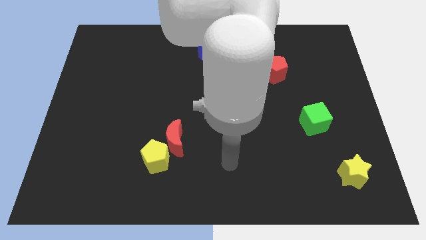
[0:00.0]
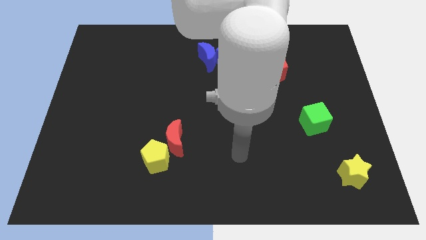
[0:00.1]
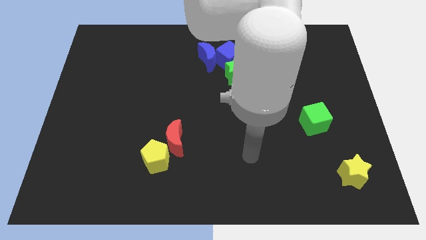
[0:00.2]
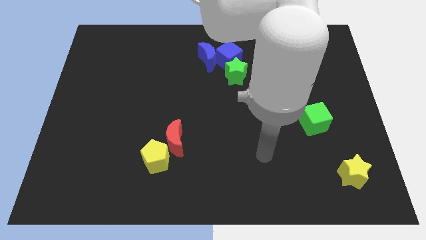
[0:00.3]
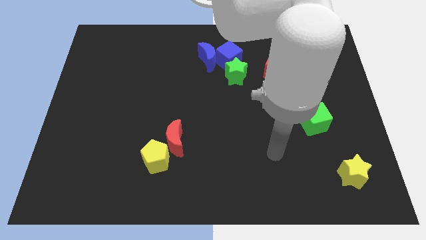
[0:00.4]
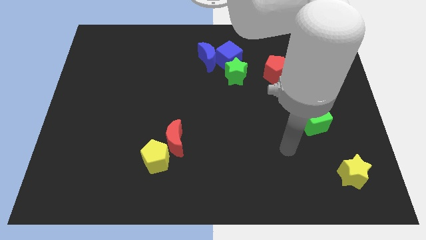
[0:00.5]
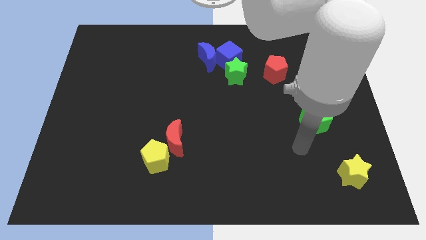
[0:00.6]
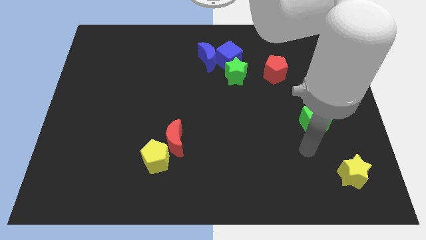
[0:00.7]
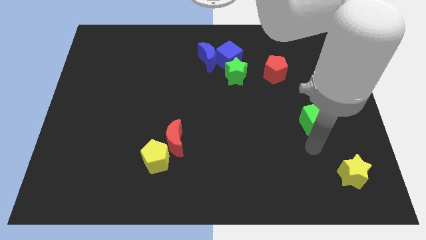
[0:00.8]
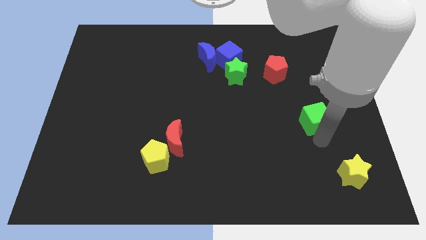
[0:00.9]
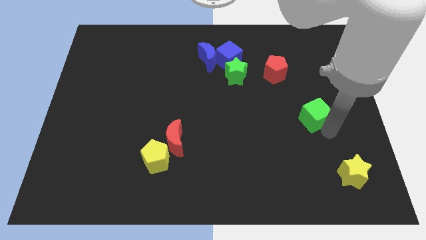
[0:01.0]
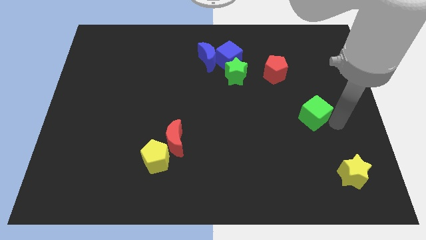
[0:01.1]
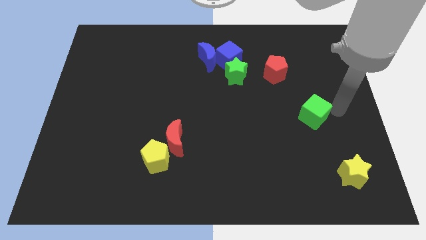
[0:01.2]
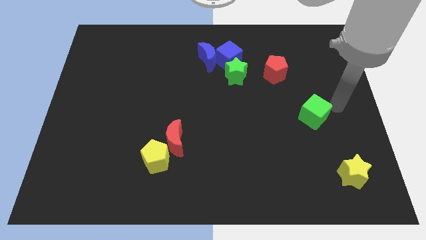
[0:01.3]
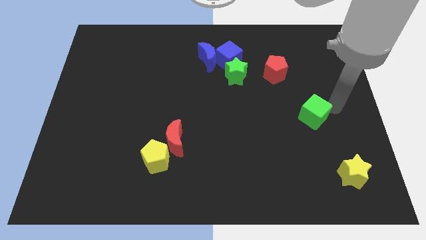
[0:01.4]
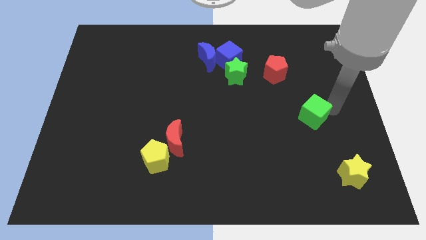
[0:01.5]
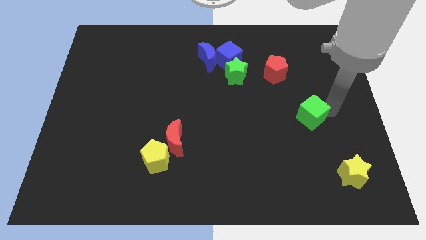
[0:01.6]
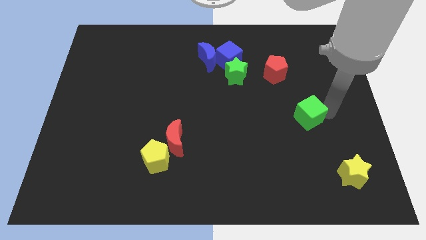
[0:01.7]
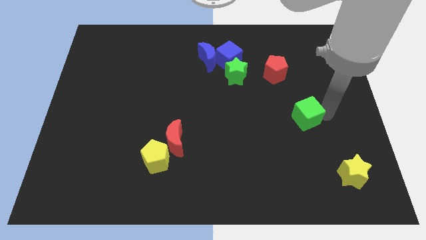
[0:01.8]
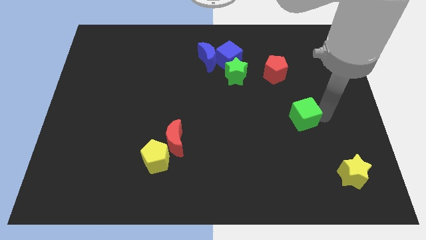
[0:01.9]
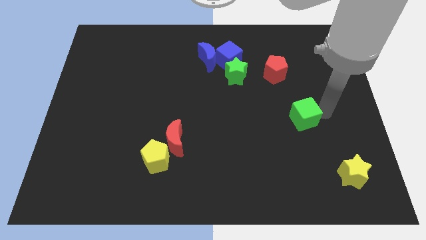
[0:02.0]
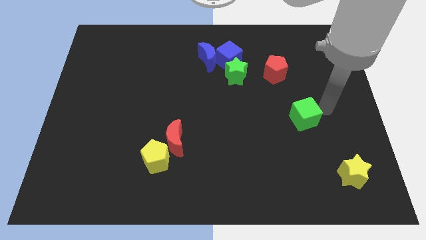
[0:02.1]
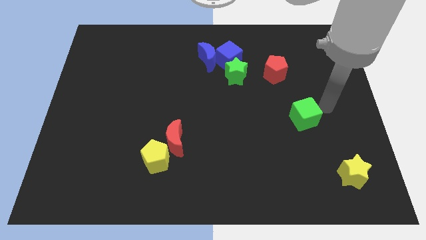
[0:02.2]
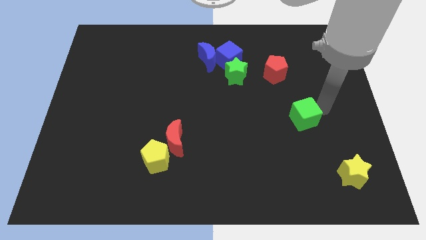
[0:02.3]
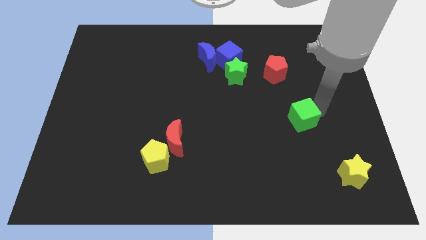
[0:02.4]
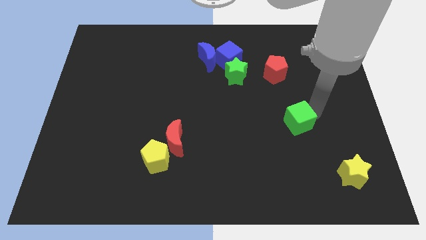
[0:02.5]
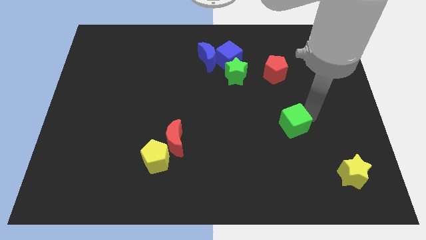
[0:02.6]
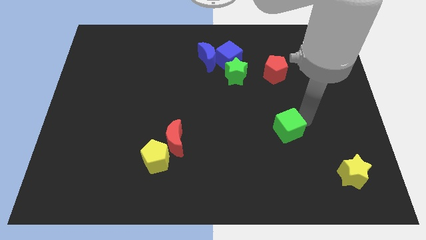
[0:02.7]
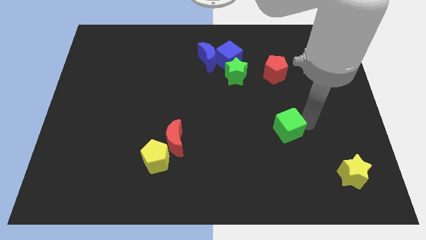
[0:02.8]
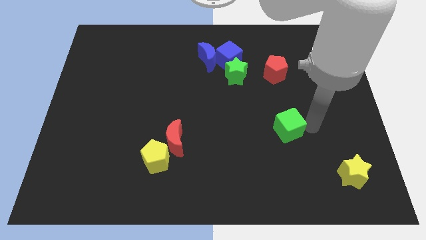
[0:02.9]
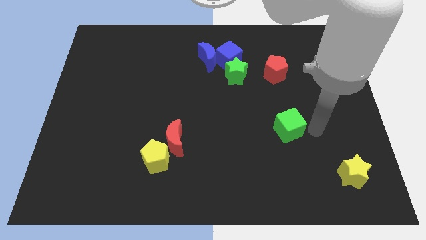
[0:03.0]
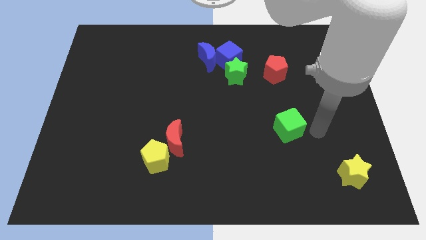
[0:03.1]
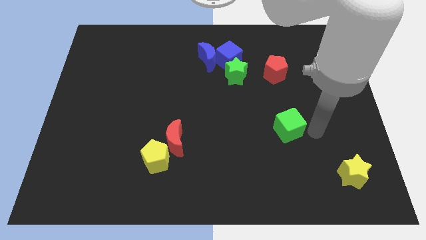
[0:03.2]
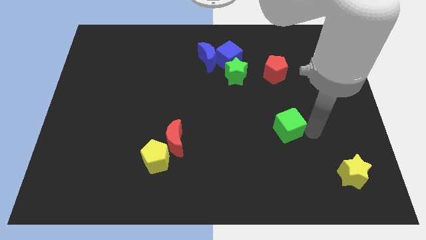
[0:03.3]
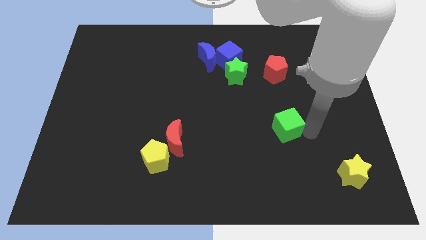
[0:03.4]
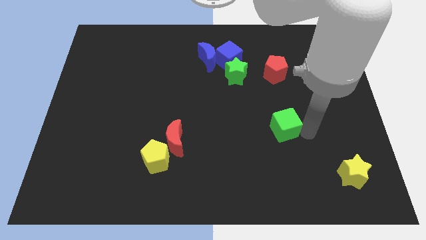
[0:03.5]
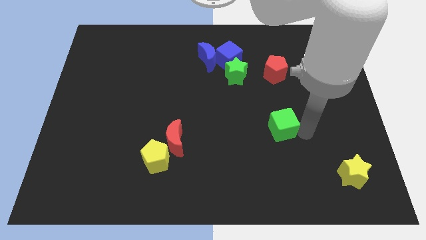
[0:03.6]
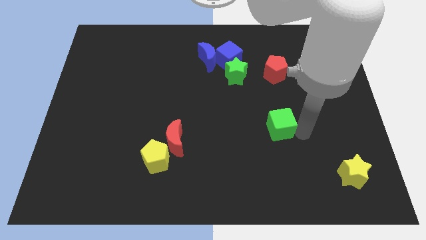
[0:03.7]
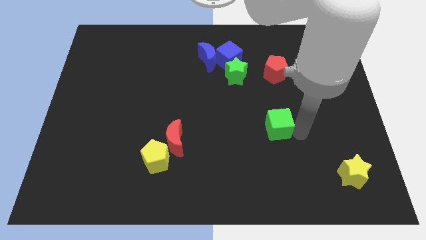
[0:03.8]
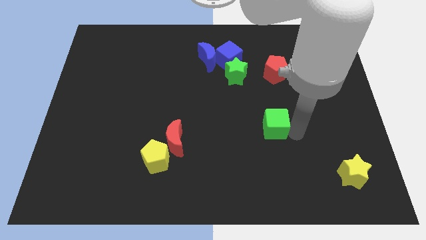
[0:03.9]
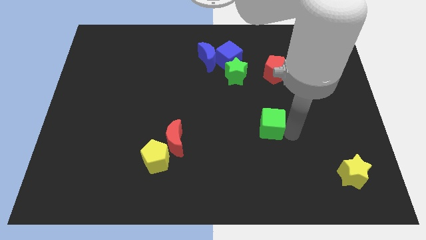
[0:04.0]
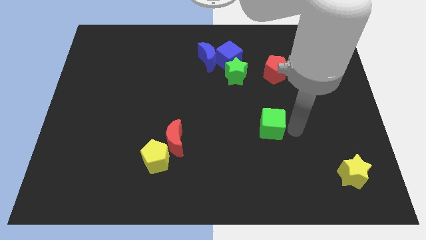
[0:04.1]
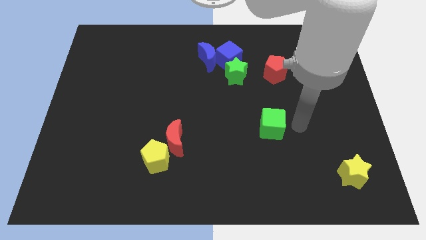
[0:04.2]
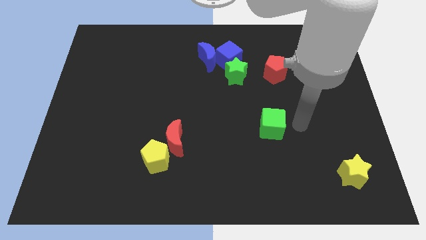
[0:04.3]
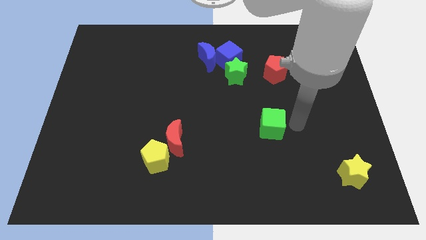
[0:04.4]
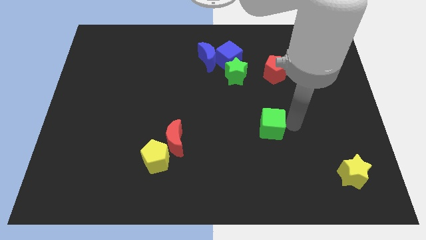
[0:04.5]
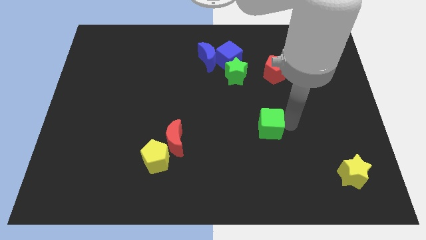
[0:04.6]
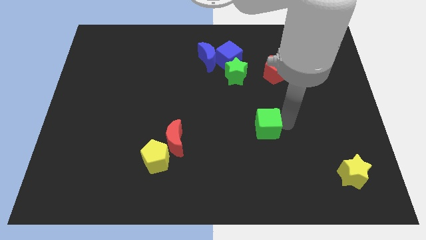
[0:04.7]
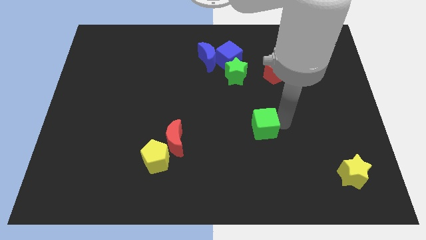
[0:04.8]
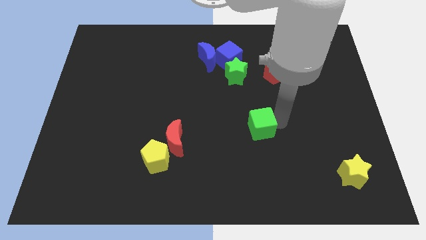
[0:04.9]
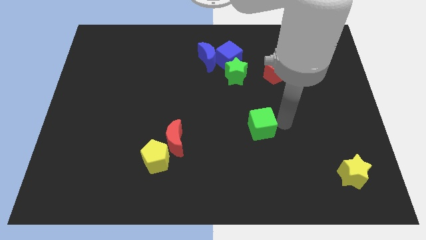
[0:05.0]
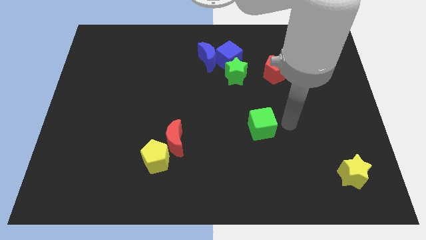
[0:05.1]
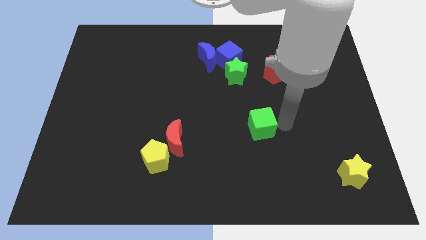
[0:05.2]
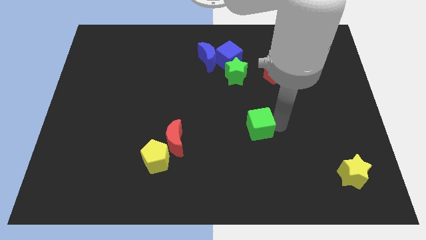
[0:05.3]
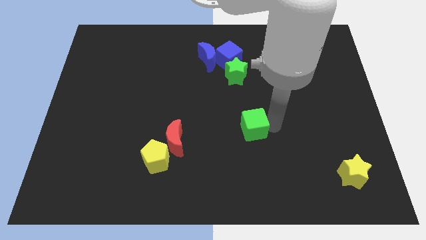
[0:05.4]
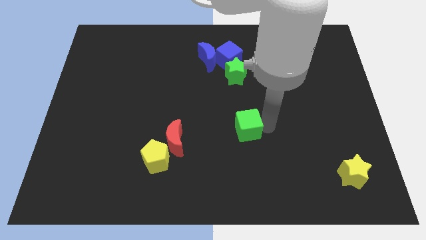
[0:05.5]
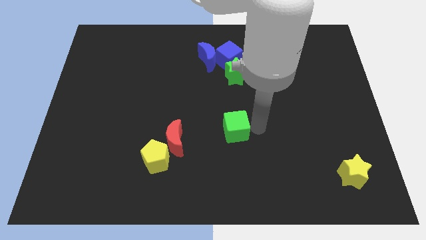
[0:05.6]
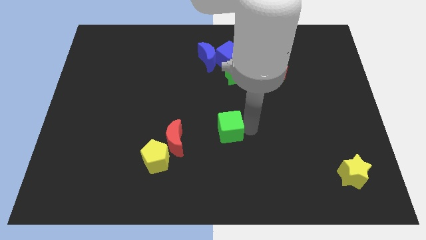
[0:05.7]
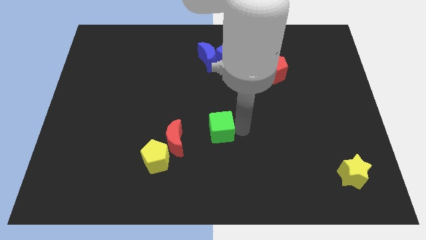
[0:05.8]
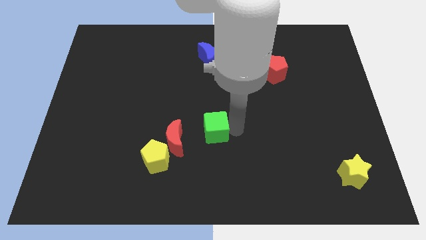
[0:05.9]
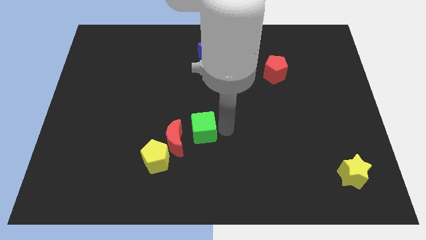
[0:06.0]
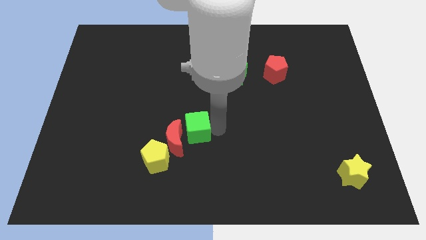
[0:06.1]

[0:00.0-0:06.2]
move the green cube towards the red moon

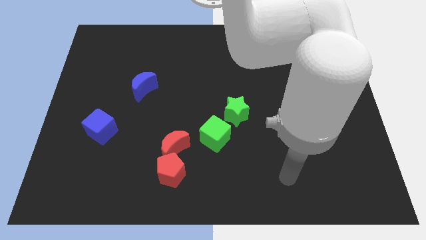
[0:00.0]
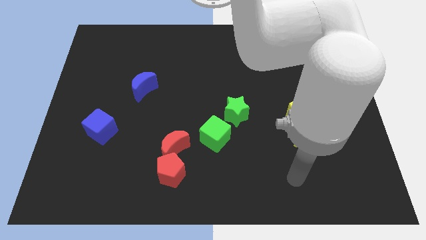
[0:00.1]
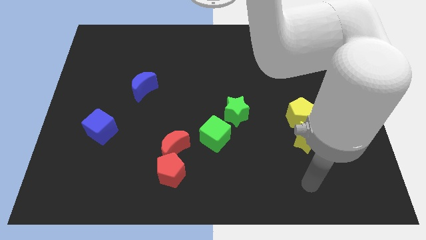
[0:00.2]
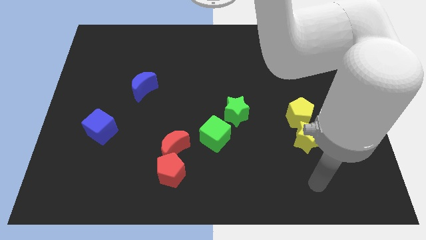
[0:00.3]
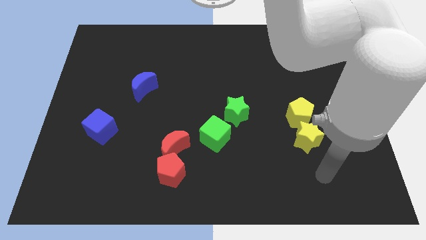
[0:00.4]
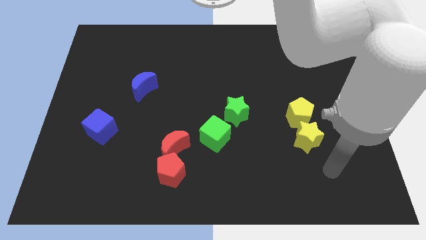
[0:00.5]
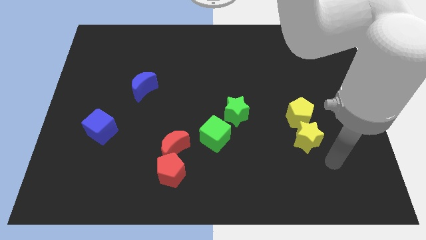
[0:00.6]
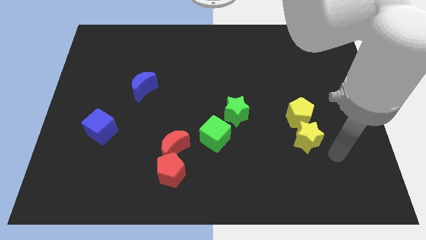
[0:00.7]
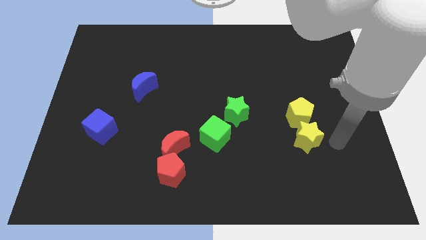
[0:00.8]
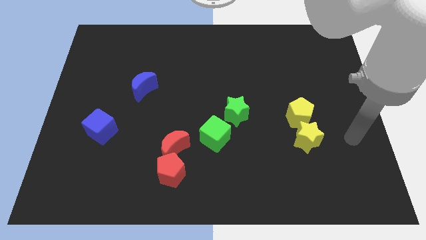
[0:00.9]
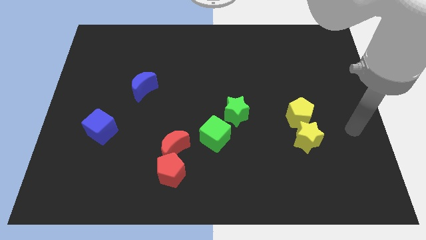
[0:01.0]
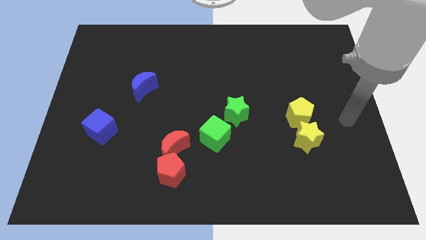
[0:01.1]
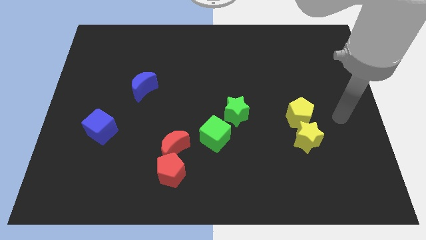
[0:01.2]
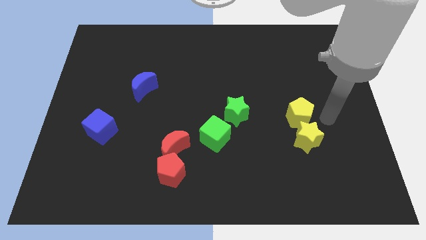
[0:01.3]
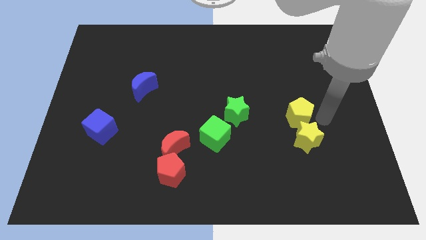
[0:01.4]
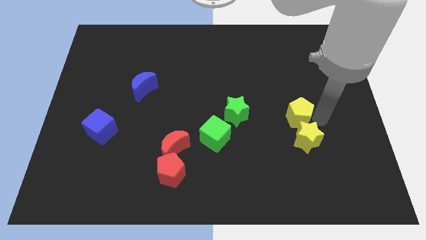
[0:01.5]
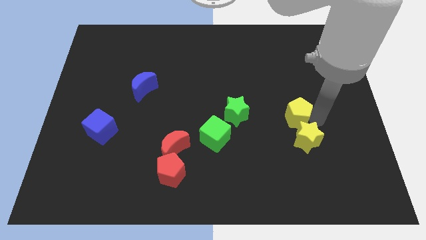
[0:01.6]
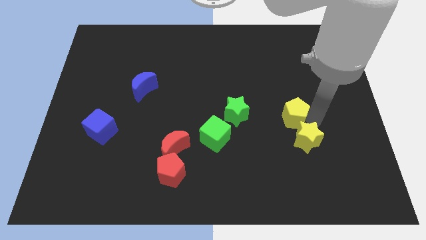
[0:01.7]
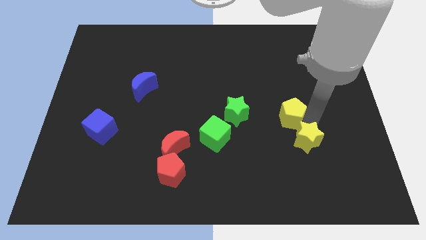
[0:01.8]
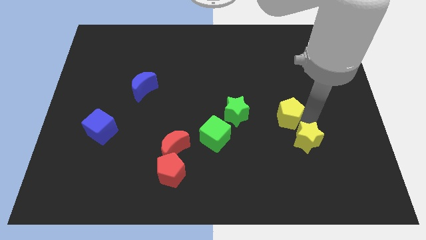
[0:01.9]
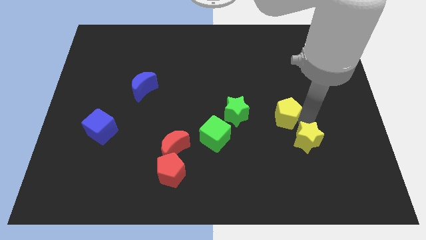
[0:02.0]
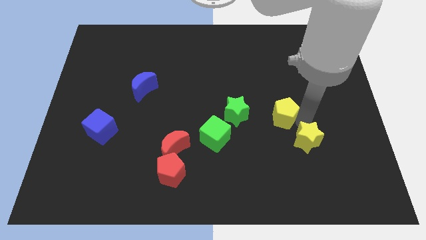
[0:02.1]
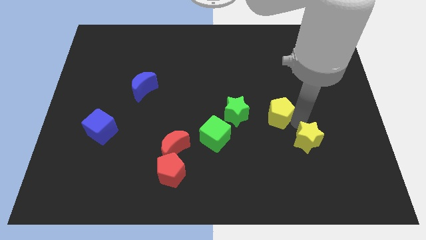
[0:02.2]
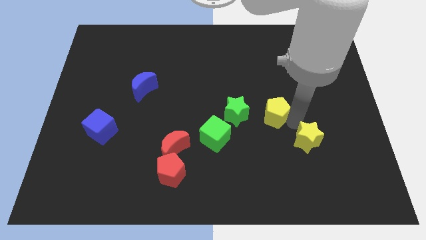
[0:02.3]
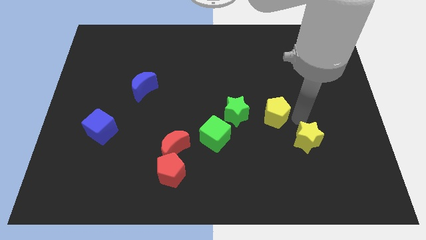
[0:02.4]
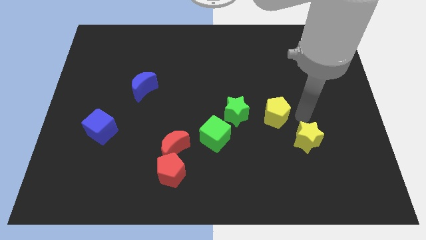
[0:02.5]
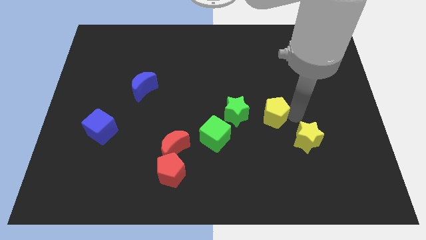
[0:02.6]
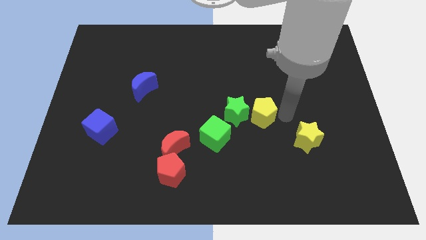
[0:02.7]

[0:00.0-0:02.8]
put the yellow pentagon close to the green star
